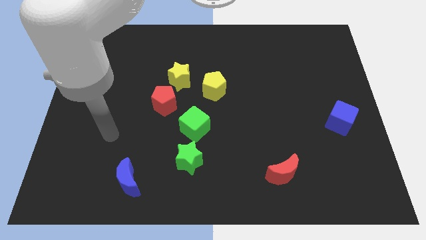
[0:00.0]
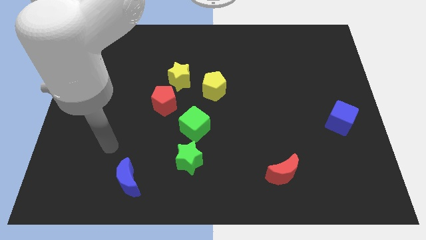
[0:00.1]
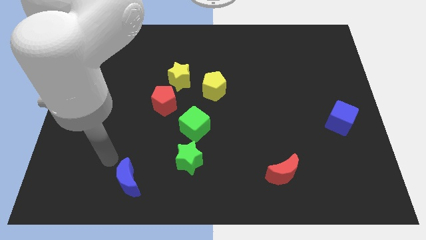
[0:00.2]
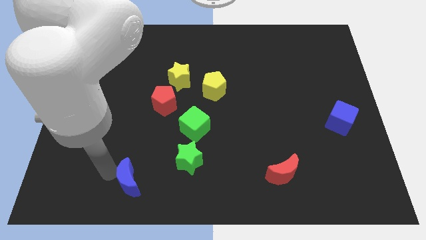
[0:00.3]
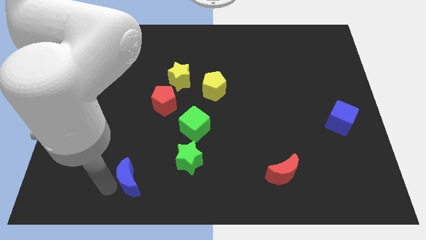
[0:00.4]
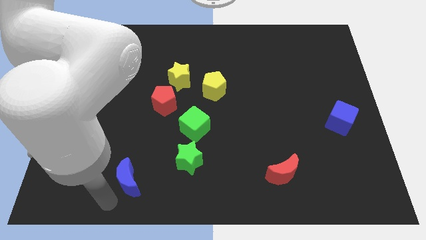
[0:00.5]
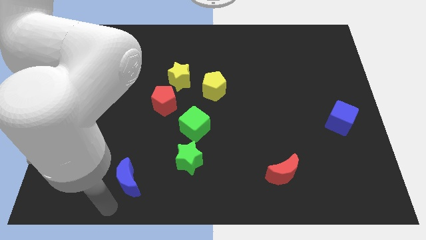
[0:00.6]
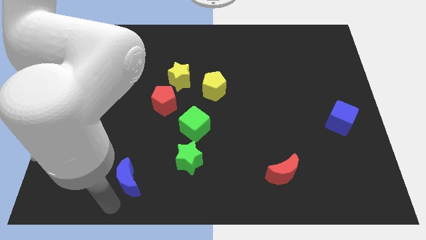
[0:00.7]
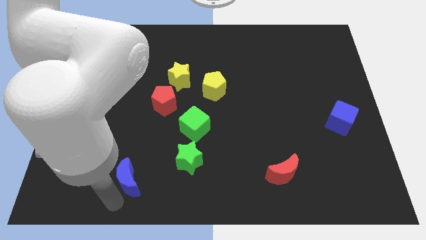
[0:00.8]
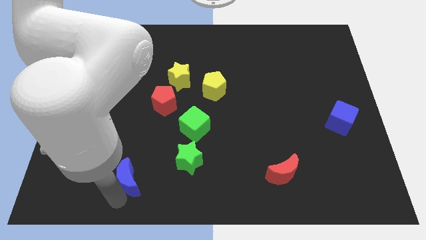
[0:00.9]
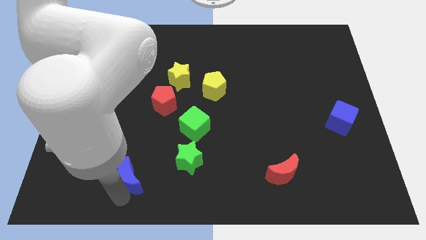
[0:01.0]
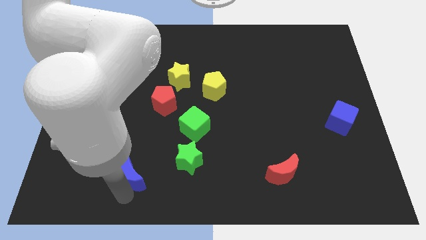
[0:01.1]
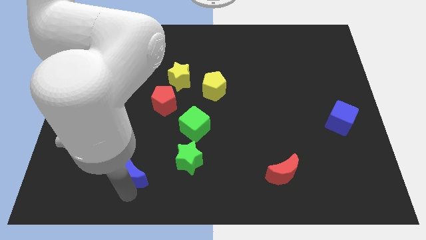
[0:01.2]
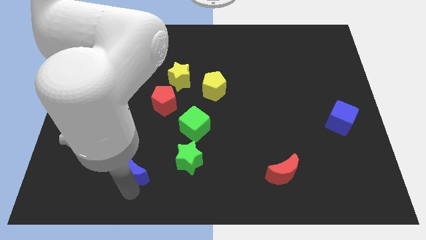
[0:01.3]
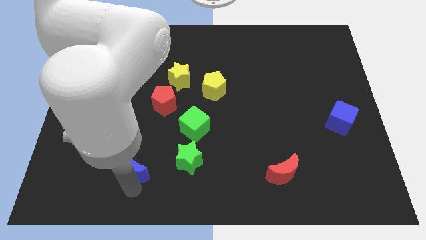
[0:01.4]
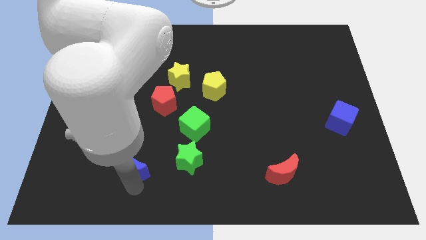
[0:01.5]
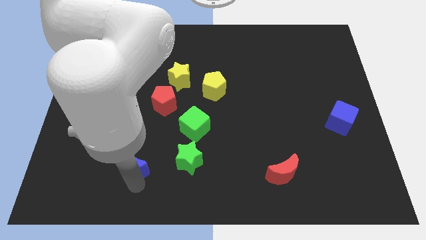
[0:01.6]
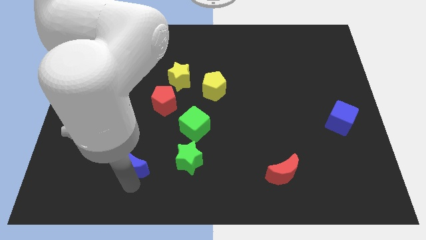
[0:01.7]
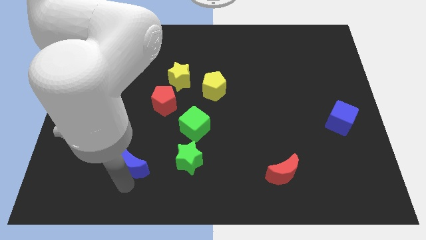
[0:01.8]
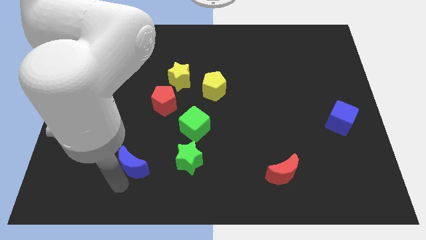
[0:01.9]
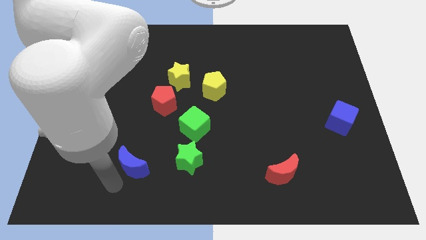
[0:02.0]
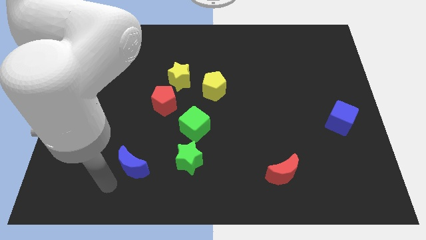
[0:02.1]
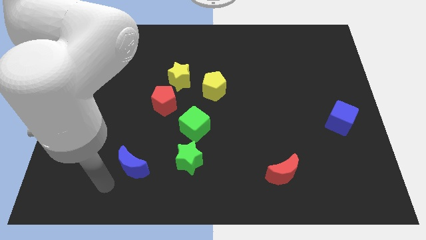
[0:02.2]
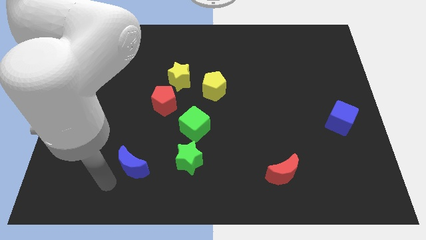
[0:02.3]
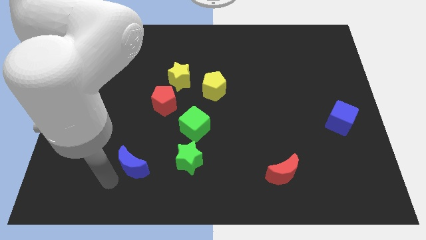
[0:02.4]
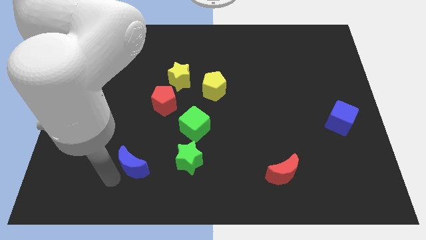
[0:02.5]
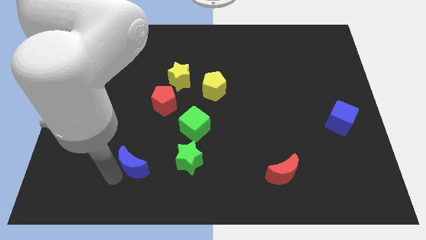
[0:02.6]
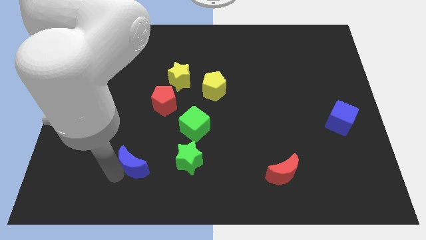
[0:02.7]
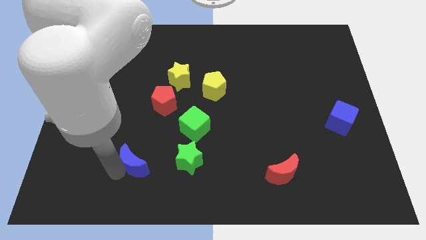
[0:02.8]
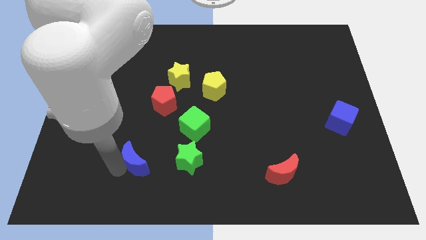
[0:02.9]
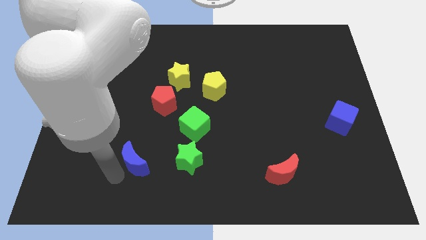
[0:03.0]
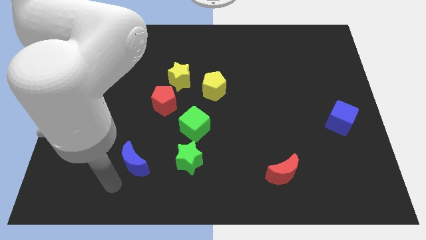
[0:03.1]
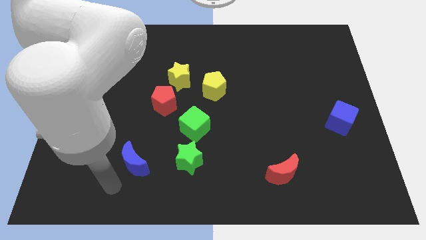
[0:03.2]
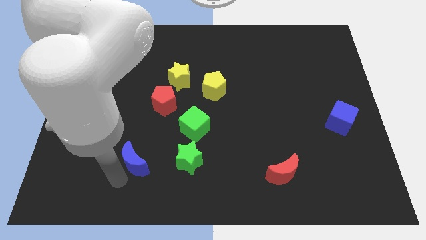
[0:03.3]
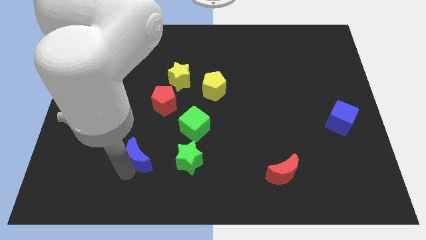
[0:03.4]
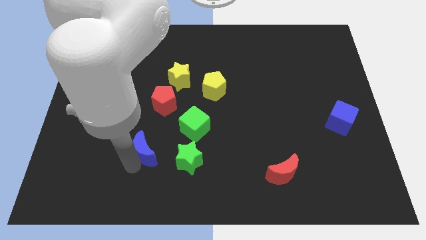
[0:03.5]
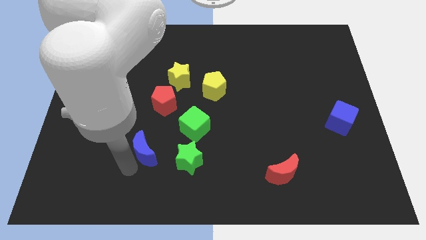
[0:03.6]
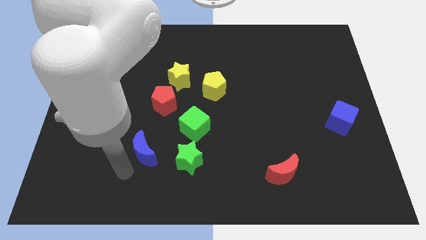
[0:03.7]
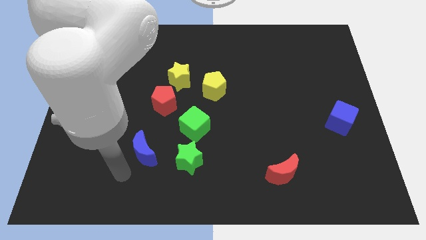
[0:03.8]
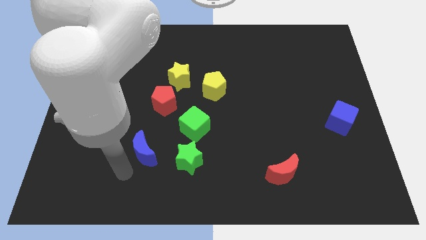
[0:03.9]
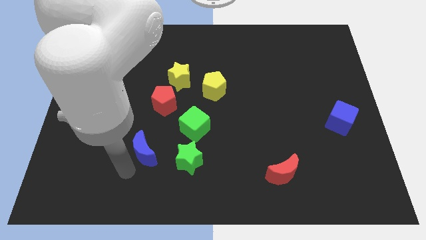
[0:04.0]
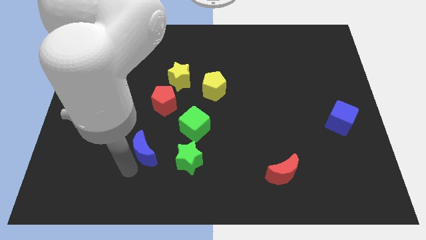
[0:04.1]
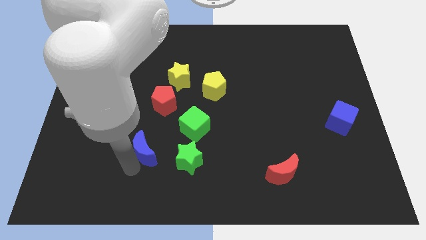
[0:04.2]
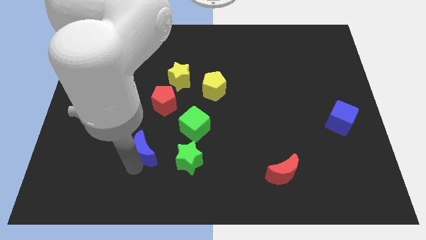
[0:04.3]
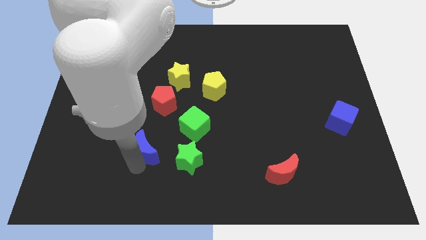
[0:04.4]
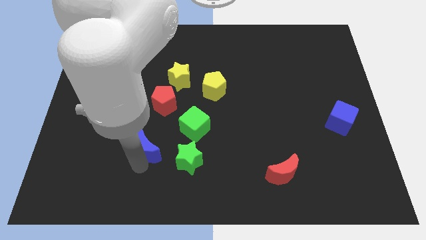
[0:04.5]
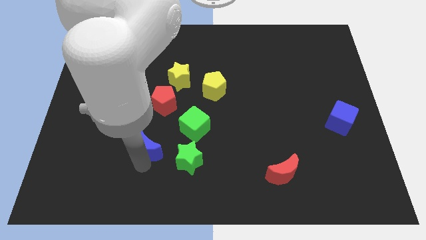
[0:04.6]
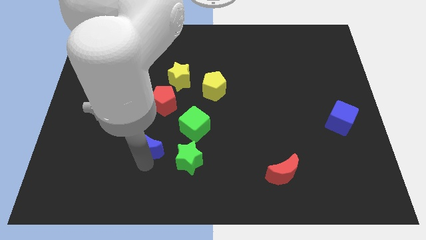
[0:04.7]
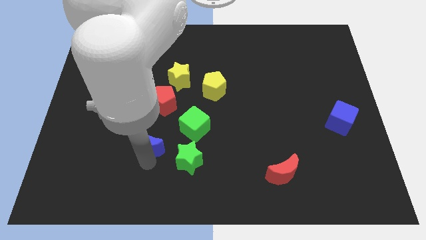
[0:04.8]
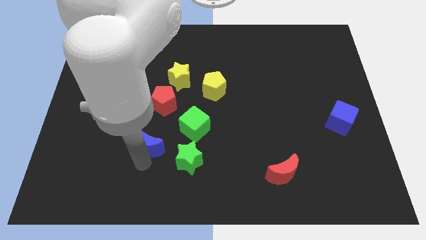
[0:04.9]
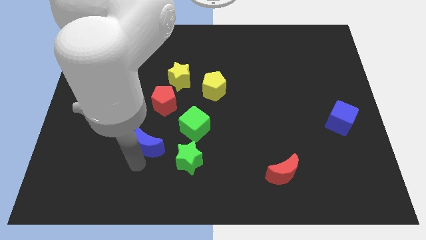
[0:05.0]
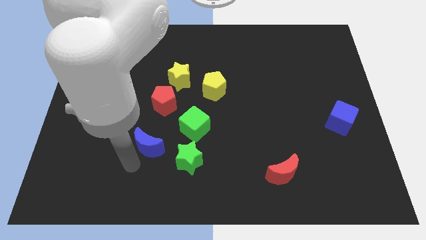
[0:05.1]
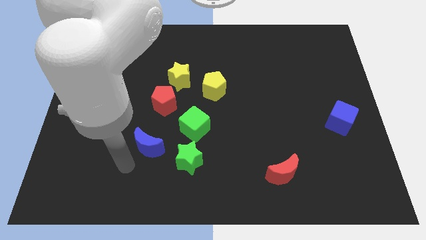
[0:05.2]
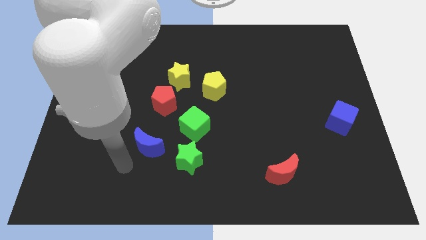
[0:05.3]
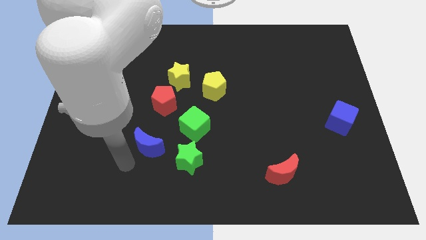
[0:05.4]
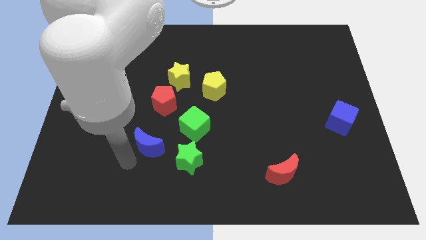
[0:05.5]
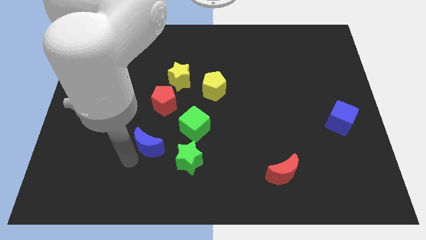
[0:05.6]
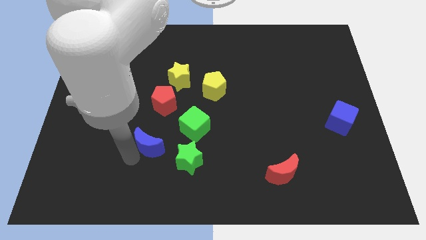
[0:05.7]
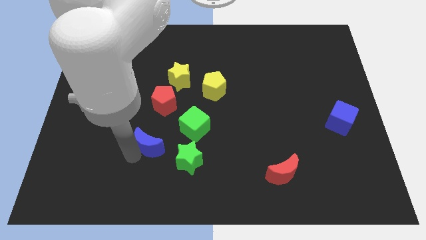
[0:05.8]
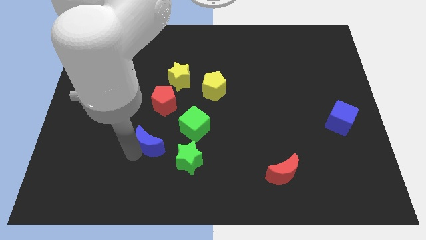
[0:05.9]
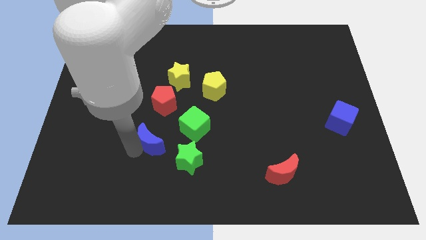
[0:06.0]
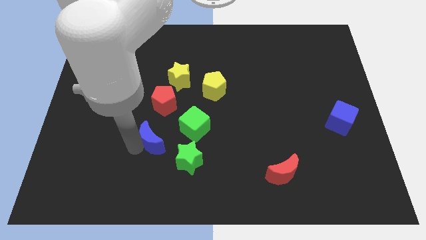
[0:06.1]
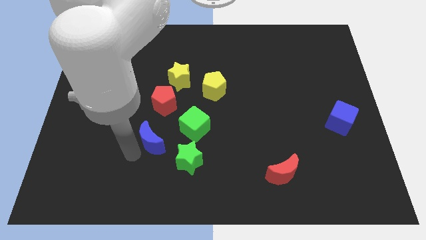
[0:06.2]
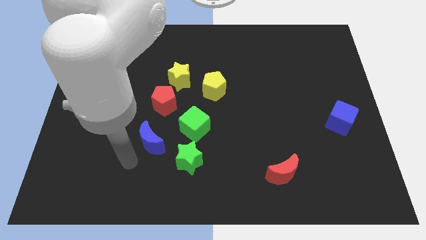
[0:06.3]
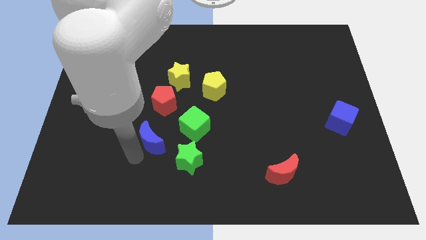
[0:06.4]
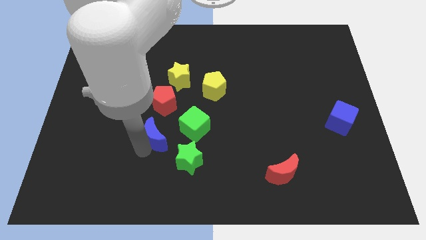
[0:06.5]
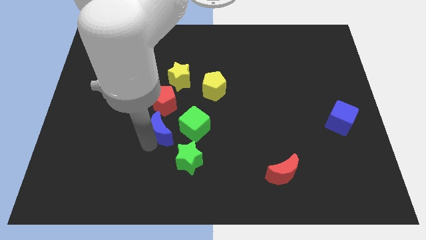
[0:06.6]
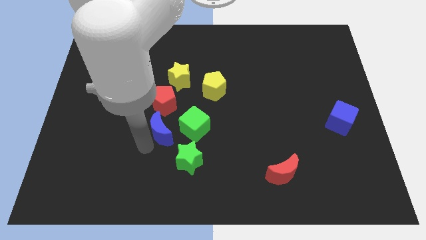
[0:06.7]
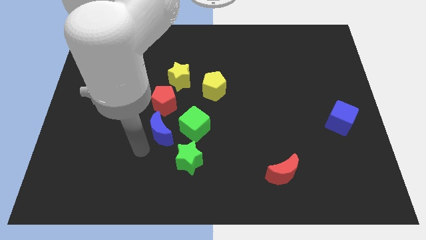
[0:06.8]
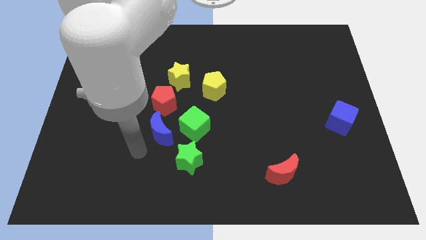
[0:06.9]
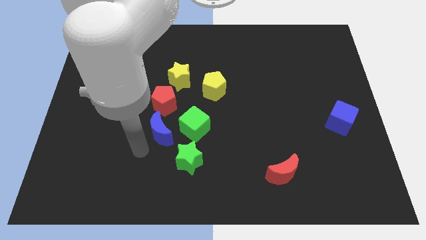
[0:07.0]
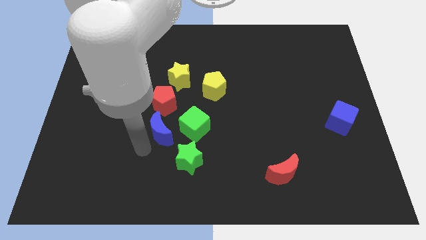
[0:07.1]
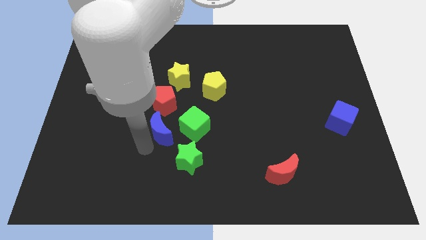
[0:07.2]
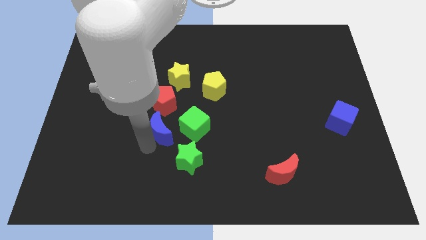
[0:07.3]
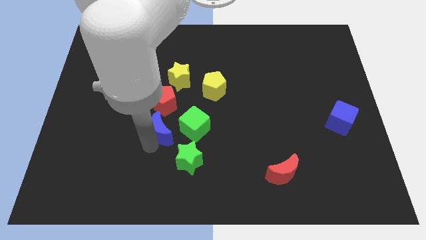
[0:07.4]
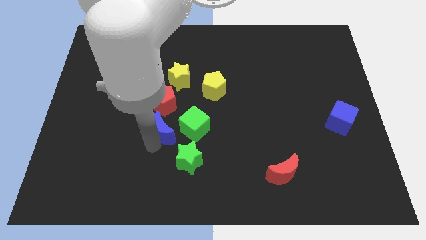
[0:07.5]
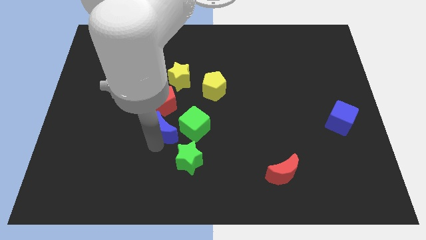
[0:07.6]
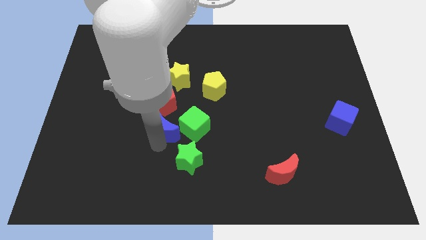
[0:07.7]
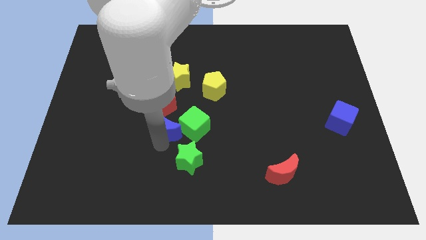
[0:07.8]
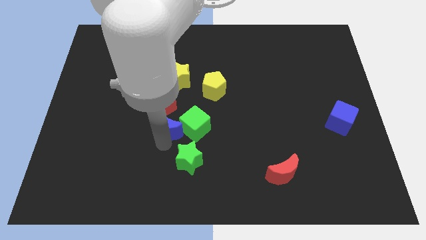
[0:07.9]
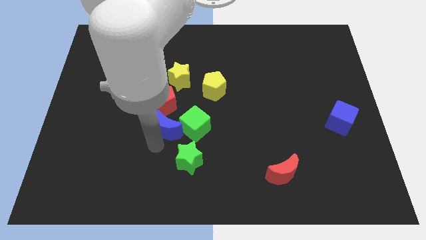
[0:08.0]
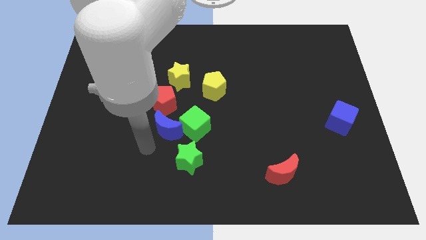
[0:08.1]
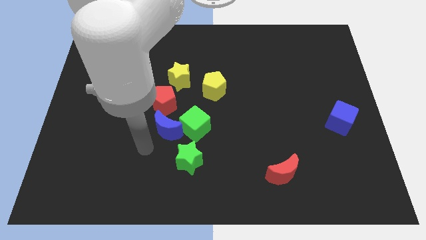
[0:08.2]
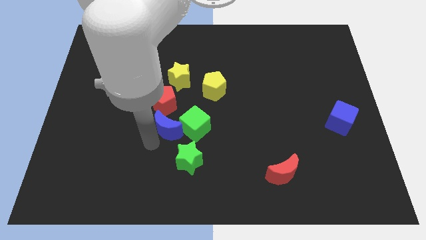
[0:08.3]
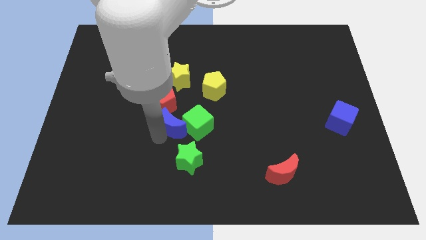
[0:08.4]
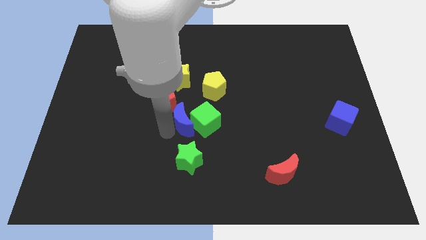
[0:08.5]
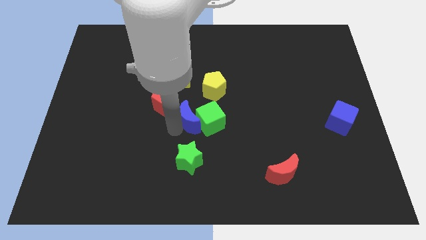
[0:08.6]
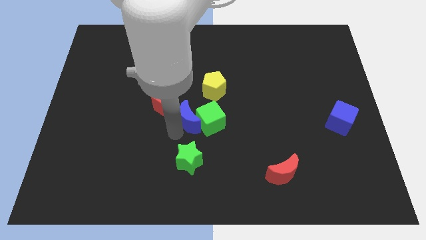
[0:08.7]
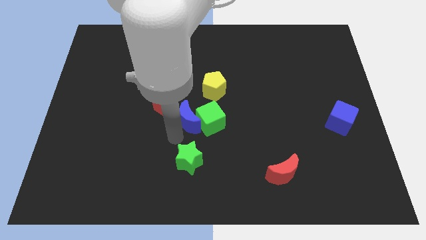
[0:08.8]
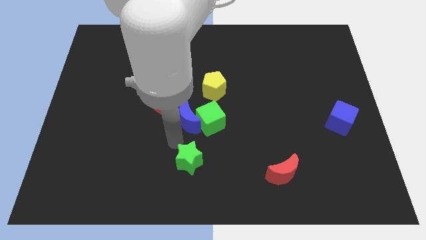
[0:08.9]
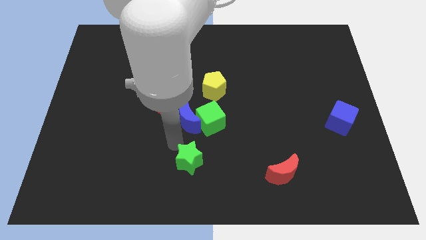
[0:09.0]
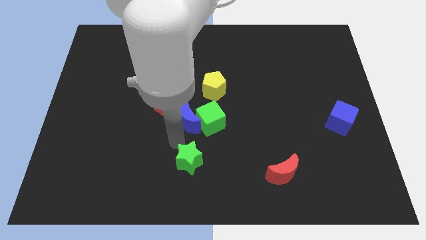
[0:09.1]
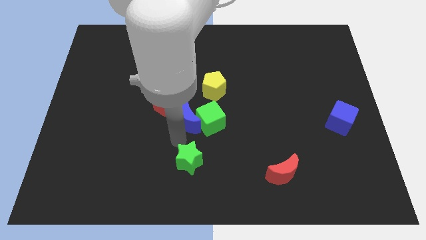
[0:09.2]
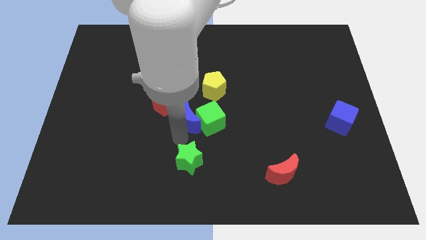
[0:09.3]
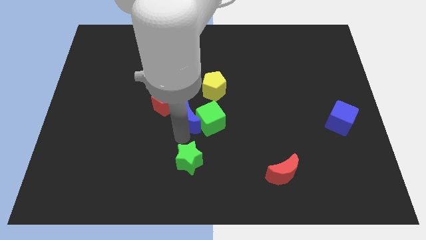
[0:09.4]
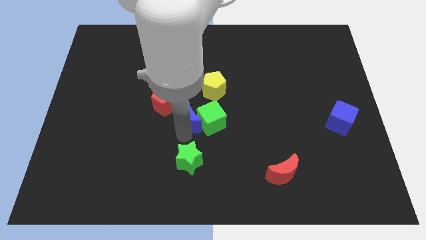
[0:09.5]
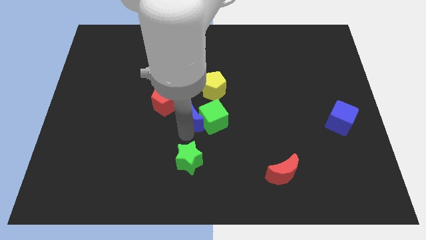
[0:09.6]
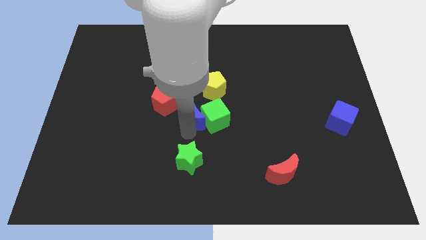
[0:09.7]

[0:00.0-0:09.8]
slide the blue moon up and to the right diagonally
